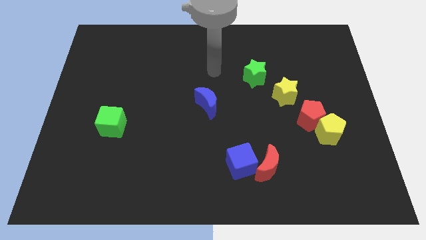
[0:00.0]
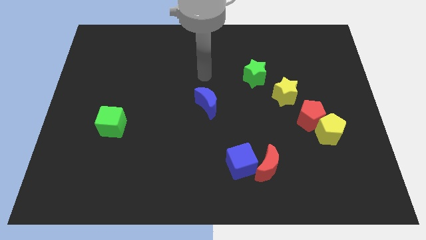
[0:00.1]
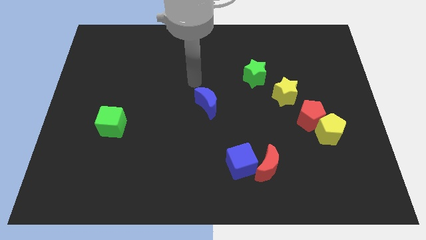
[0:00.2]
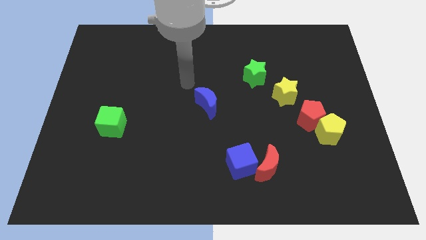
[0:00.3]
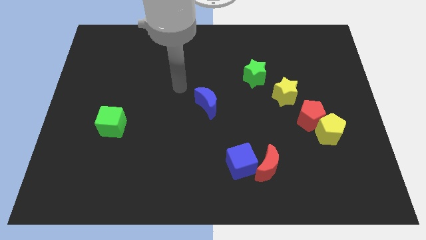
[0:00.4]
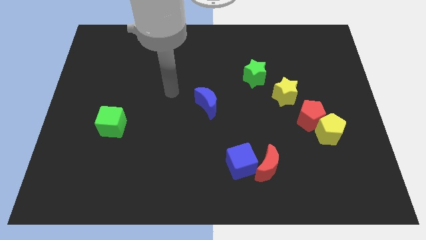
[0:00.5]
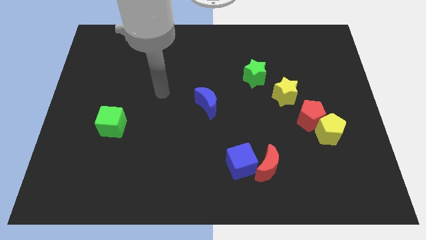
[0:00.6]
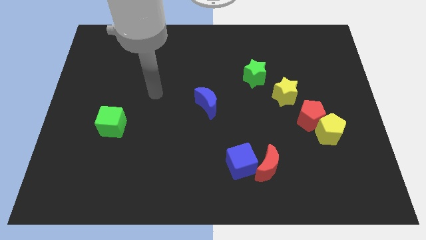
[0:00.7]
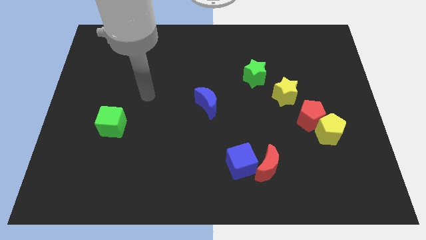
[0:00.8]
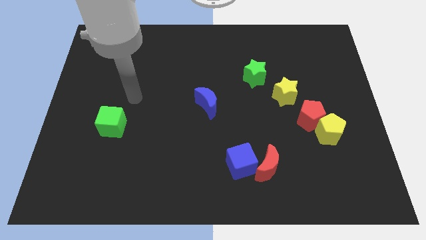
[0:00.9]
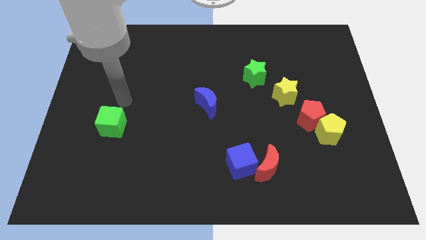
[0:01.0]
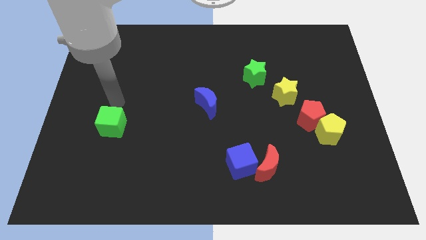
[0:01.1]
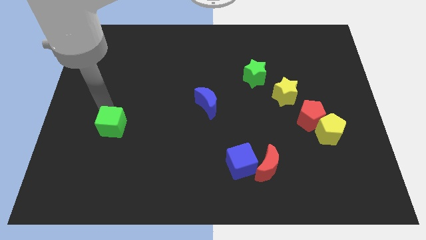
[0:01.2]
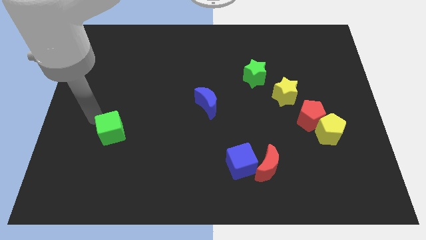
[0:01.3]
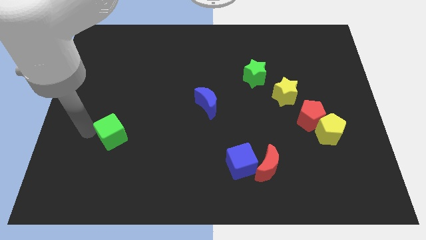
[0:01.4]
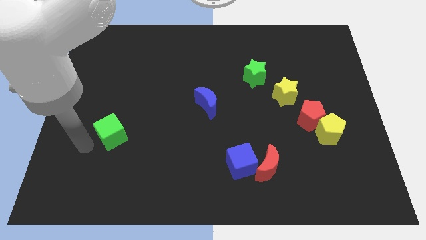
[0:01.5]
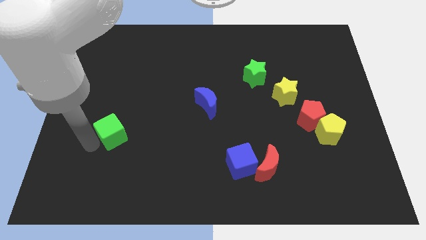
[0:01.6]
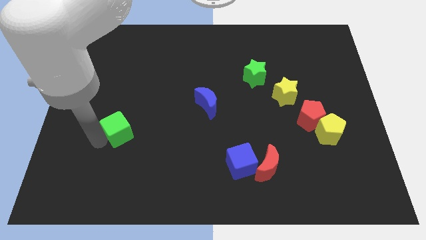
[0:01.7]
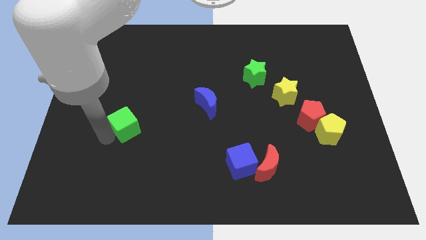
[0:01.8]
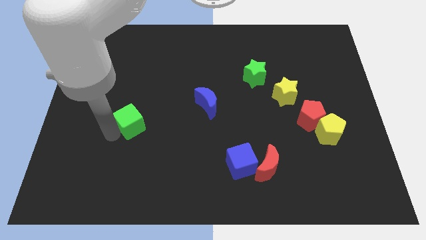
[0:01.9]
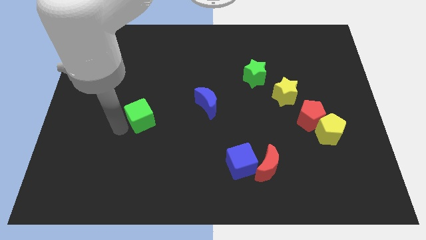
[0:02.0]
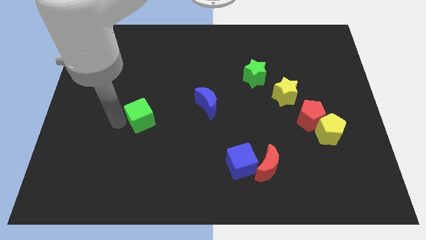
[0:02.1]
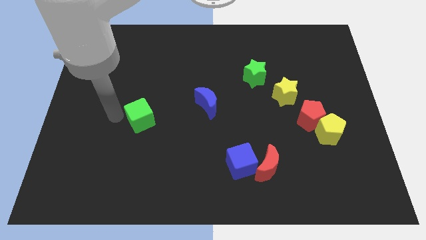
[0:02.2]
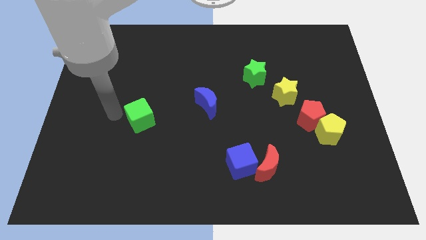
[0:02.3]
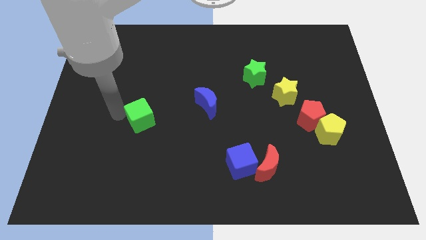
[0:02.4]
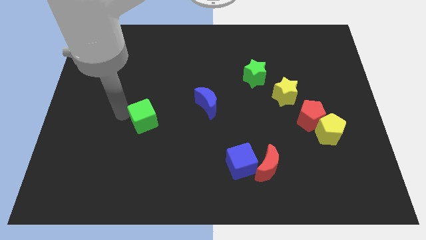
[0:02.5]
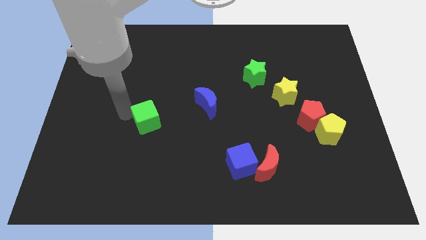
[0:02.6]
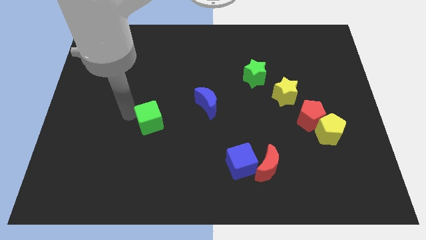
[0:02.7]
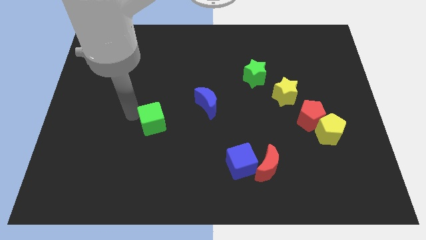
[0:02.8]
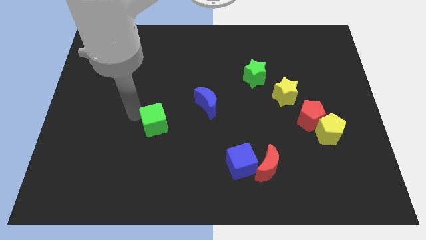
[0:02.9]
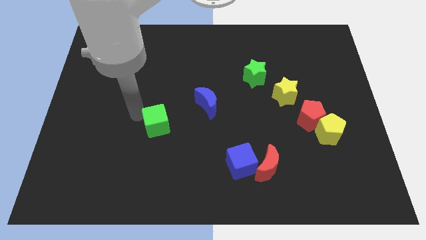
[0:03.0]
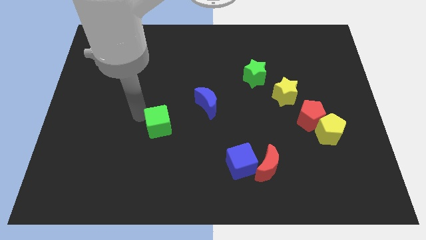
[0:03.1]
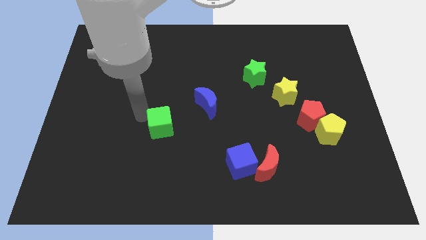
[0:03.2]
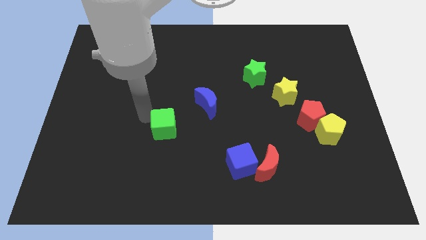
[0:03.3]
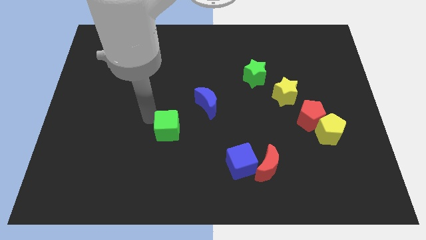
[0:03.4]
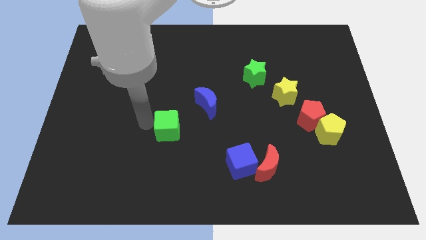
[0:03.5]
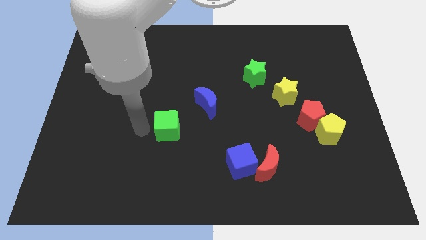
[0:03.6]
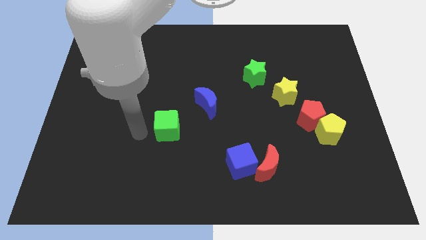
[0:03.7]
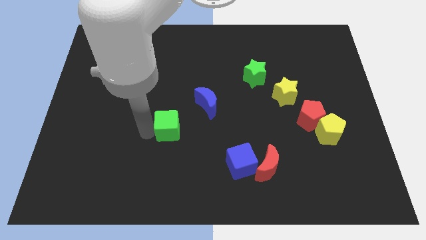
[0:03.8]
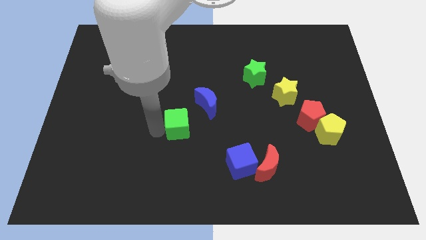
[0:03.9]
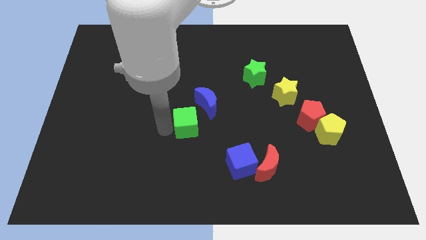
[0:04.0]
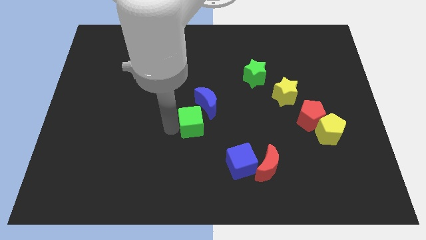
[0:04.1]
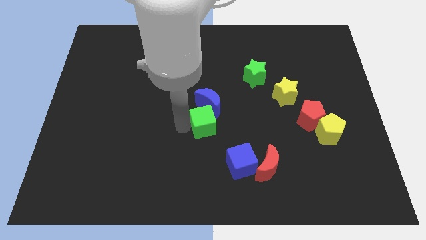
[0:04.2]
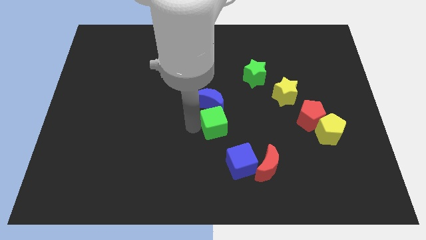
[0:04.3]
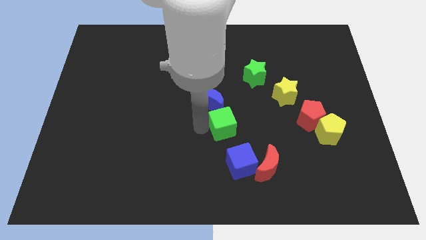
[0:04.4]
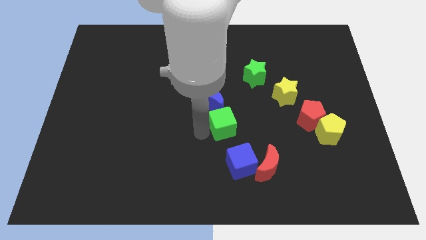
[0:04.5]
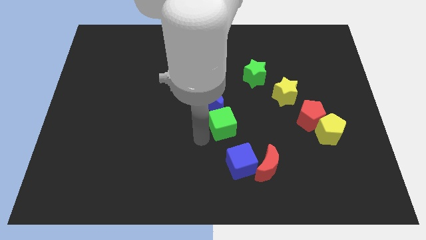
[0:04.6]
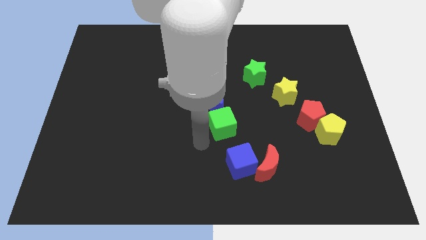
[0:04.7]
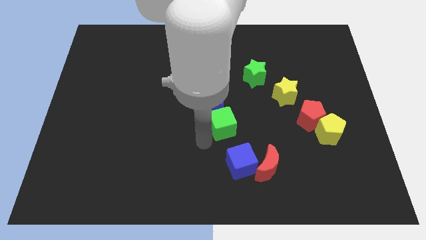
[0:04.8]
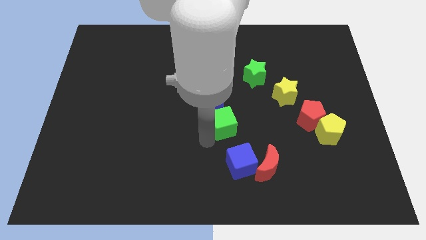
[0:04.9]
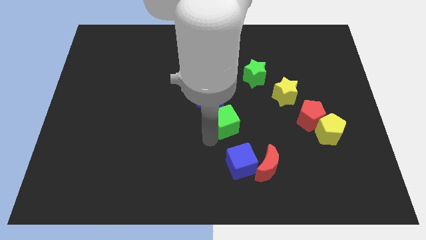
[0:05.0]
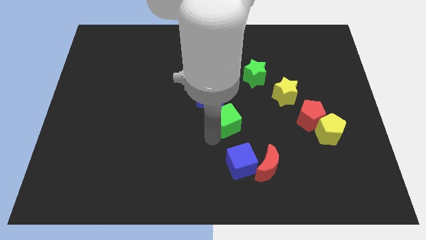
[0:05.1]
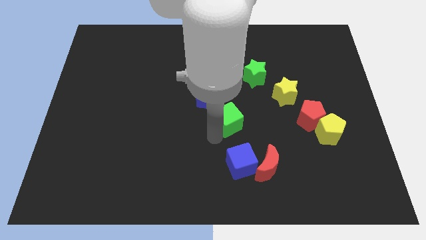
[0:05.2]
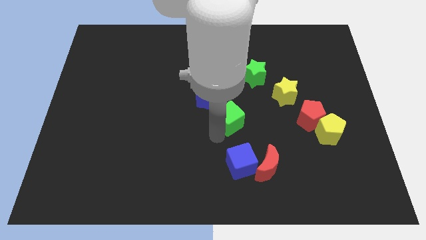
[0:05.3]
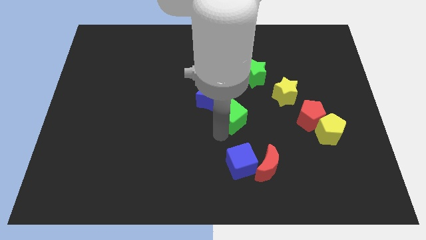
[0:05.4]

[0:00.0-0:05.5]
move the green cube to the right of the blue moon

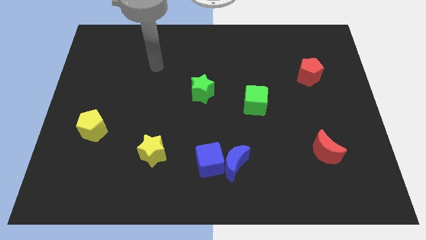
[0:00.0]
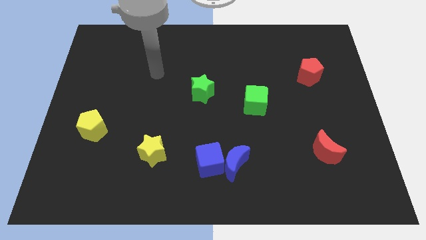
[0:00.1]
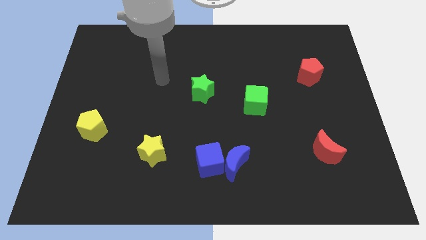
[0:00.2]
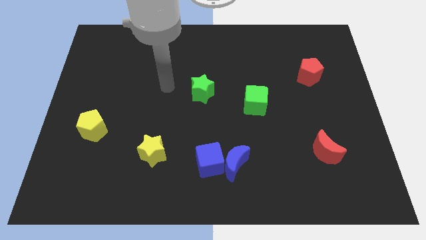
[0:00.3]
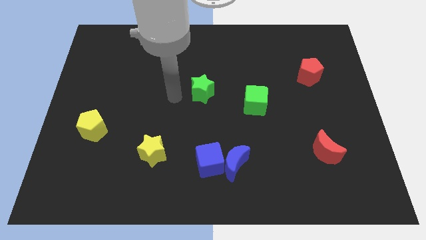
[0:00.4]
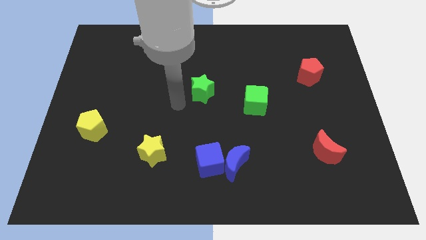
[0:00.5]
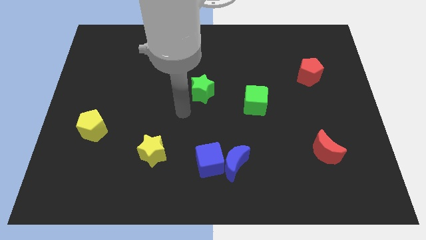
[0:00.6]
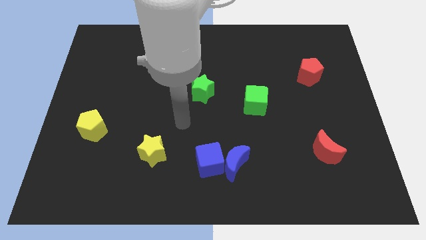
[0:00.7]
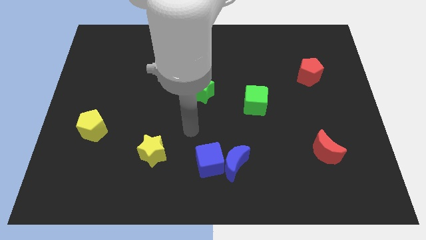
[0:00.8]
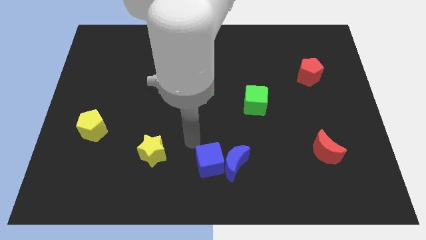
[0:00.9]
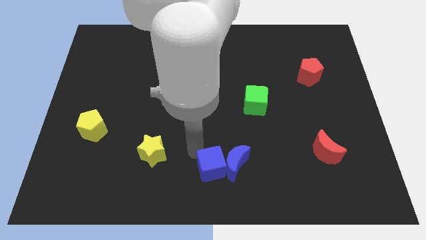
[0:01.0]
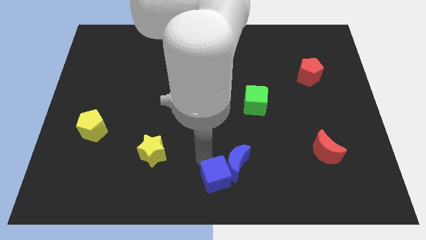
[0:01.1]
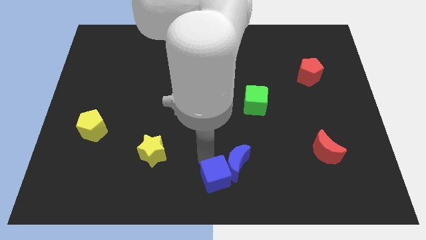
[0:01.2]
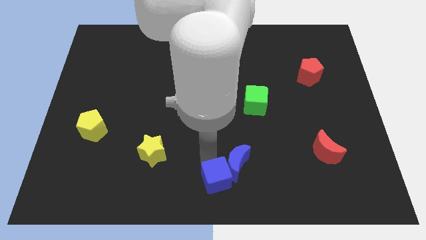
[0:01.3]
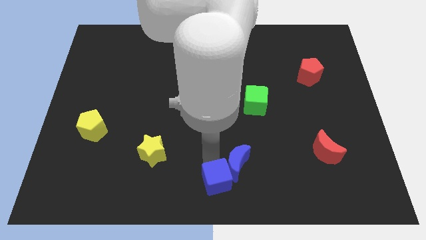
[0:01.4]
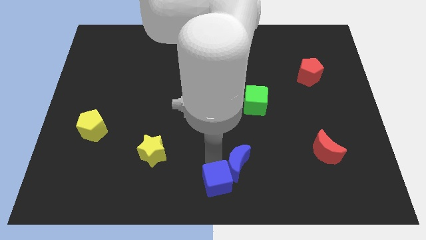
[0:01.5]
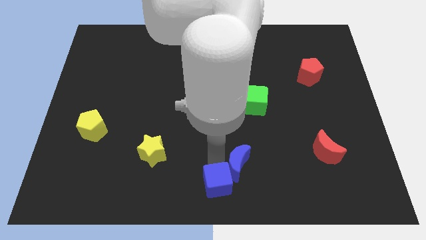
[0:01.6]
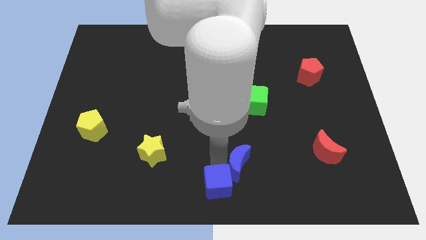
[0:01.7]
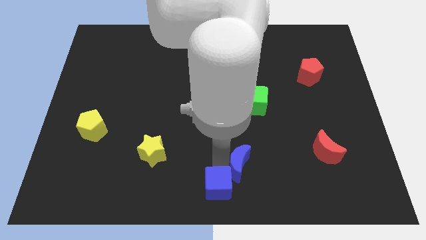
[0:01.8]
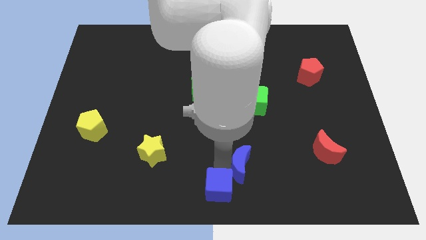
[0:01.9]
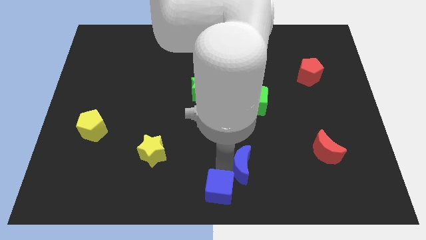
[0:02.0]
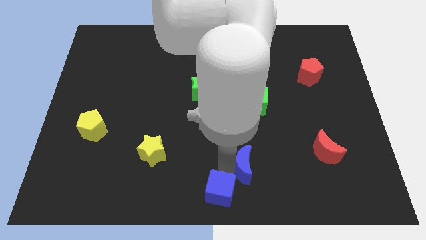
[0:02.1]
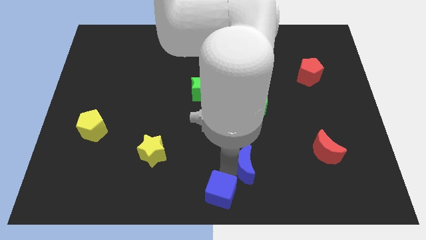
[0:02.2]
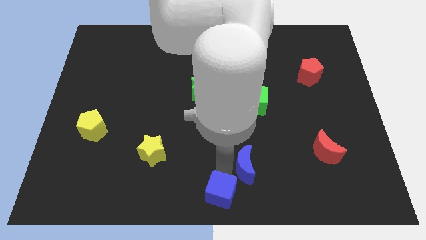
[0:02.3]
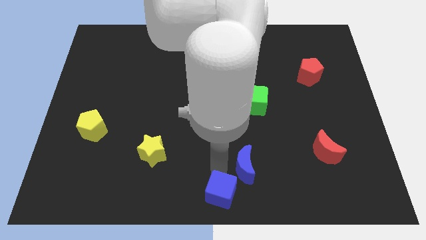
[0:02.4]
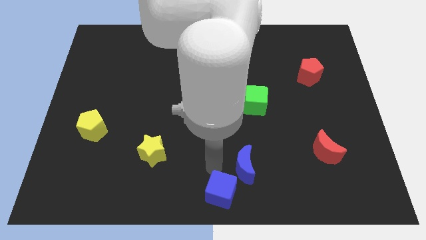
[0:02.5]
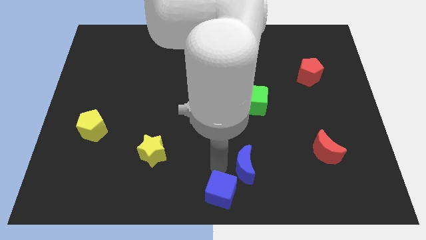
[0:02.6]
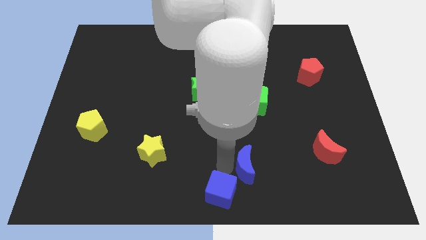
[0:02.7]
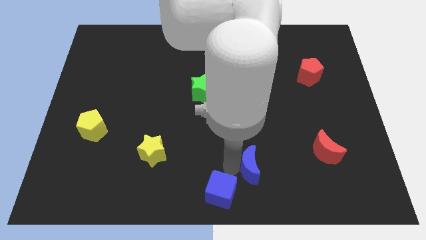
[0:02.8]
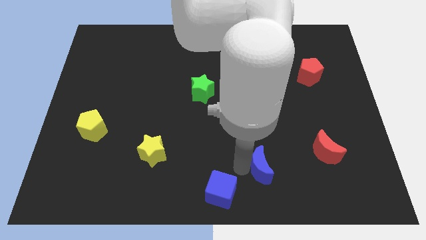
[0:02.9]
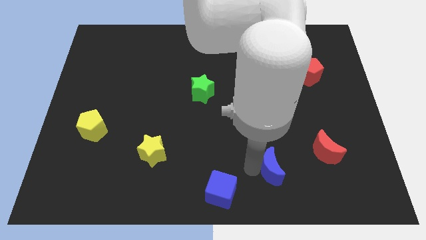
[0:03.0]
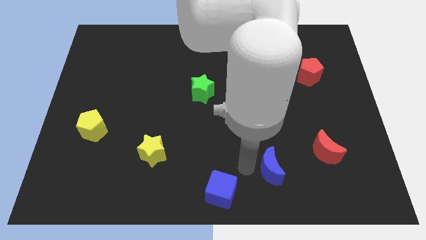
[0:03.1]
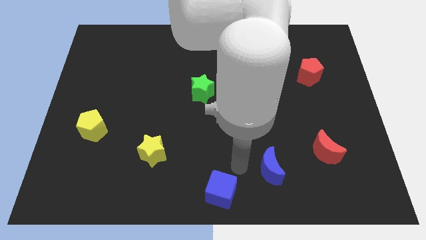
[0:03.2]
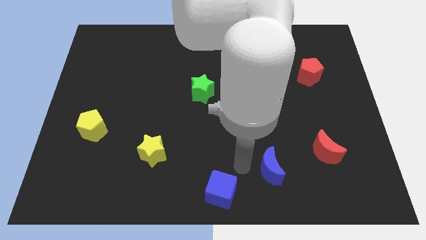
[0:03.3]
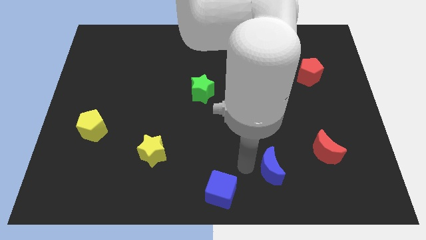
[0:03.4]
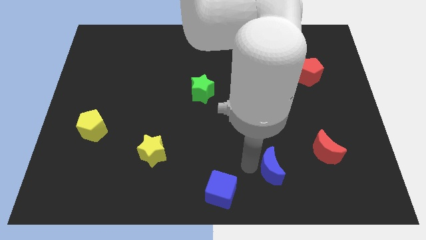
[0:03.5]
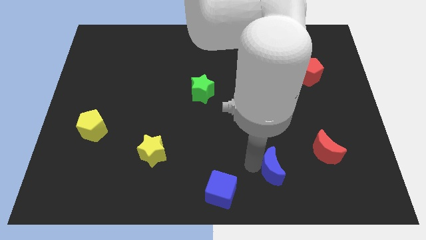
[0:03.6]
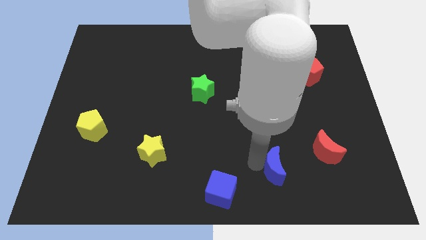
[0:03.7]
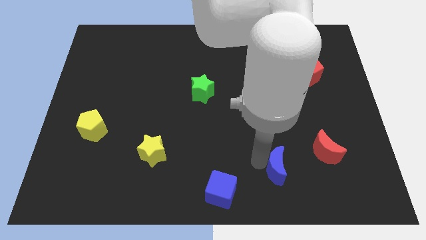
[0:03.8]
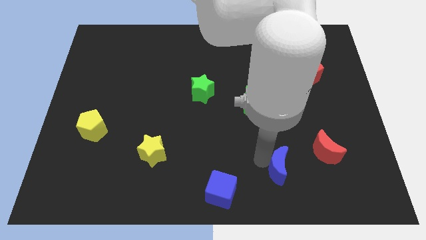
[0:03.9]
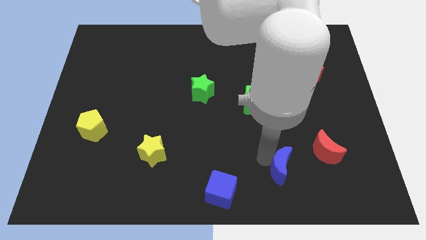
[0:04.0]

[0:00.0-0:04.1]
move the blue moon diagonally down and to the left of the red moon
